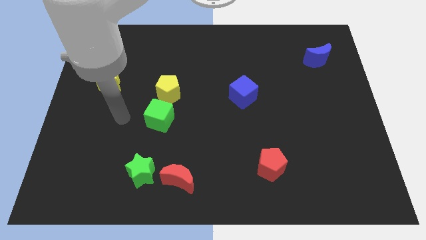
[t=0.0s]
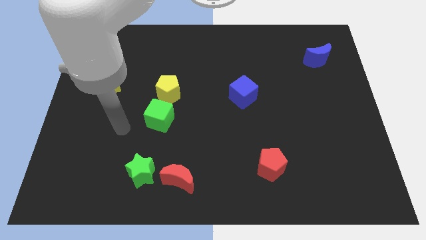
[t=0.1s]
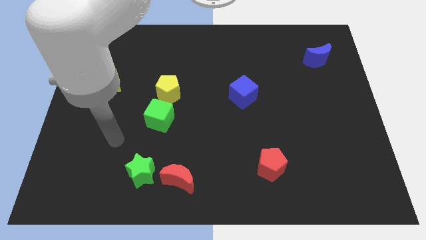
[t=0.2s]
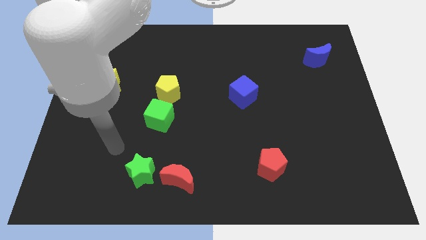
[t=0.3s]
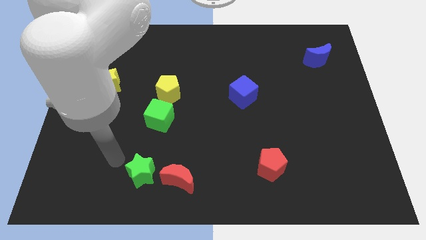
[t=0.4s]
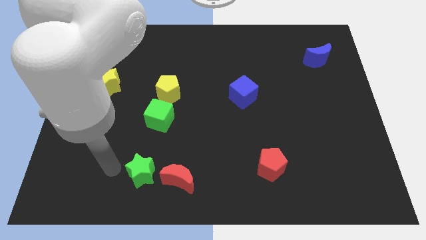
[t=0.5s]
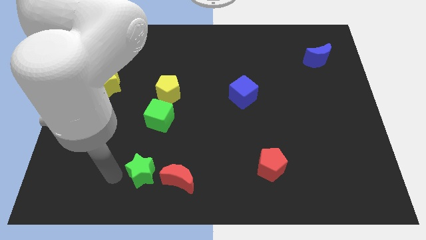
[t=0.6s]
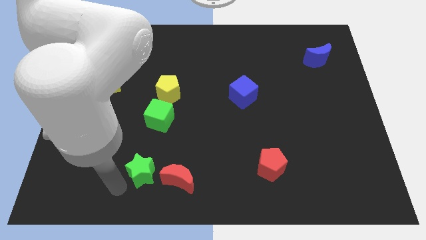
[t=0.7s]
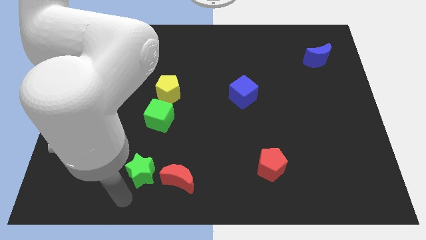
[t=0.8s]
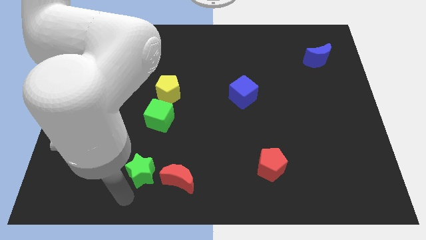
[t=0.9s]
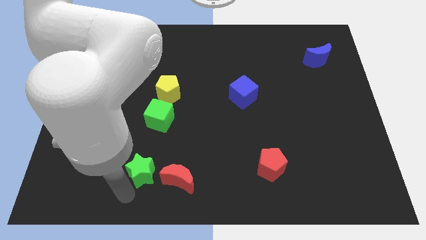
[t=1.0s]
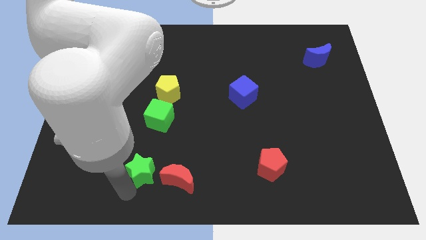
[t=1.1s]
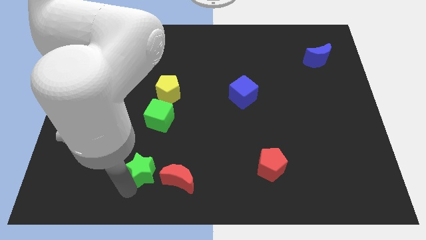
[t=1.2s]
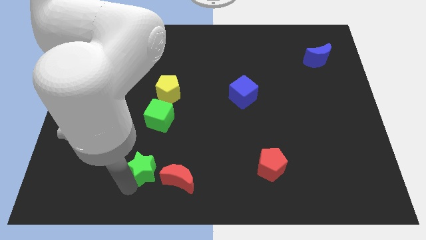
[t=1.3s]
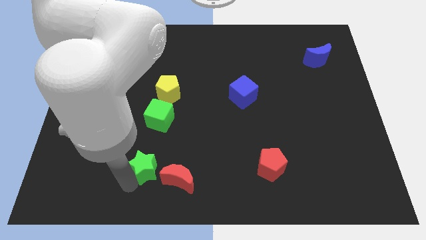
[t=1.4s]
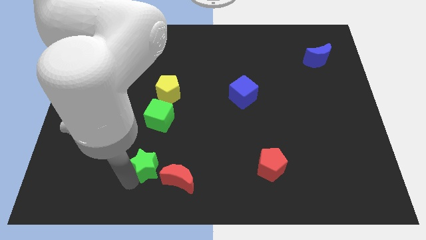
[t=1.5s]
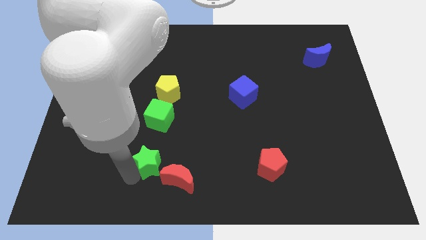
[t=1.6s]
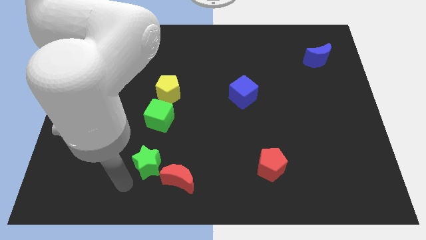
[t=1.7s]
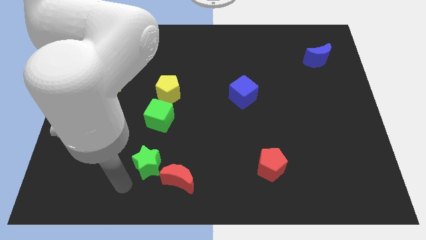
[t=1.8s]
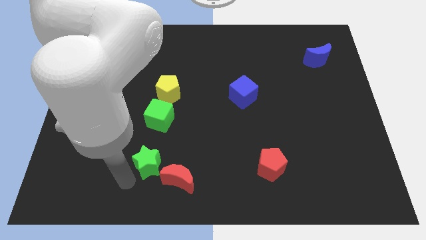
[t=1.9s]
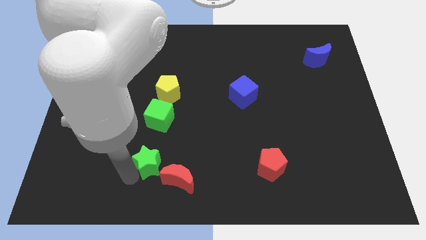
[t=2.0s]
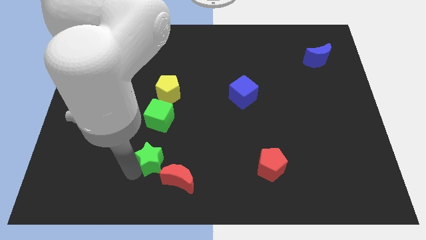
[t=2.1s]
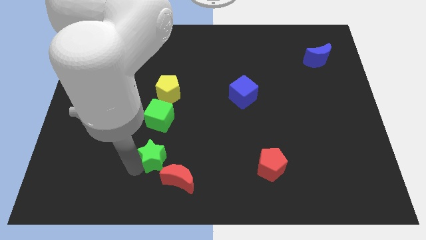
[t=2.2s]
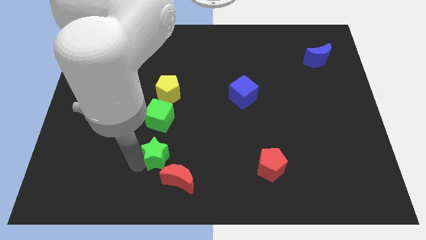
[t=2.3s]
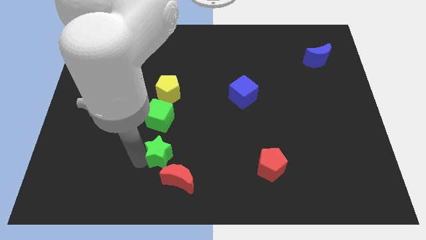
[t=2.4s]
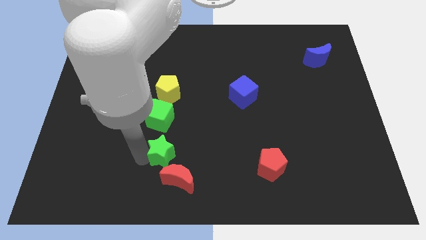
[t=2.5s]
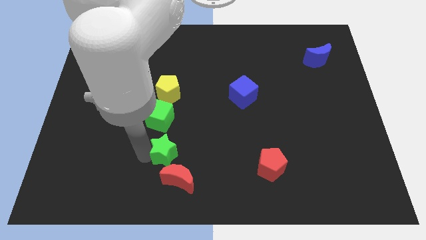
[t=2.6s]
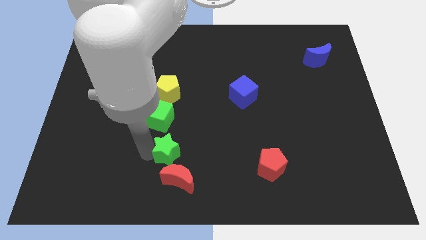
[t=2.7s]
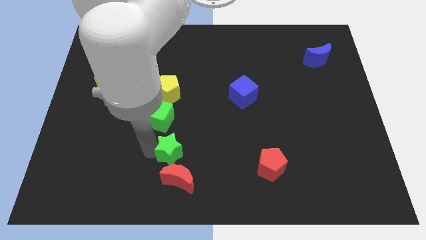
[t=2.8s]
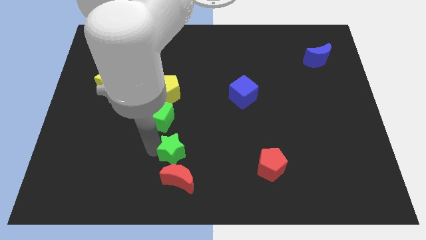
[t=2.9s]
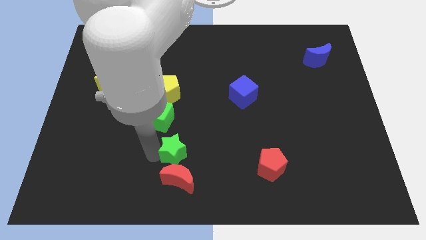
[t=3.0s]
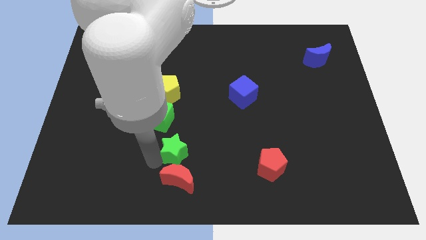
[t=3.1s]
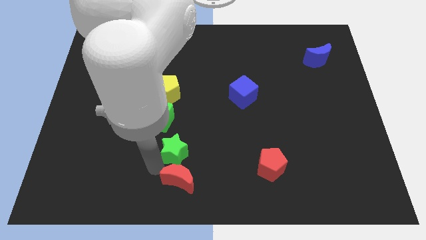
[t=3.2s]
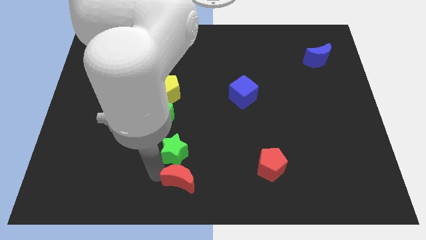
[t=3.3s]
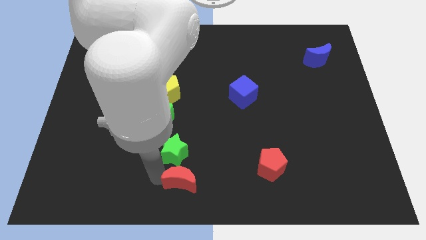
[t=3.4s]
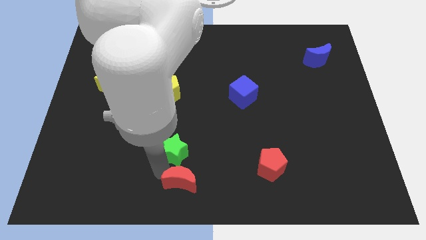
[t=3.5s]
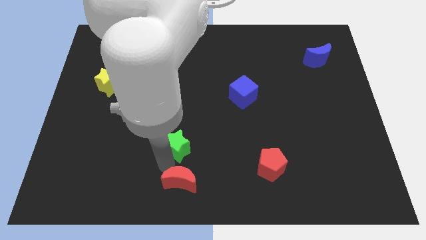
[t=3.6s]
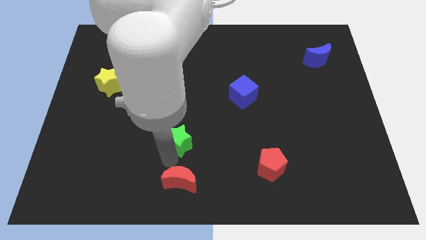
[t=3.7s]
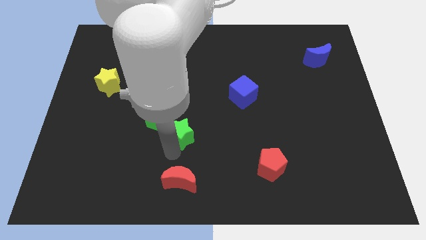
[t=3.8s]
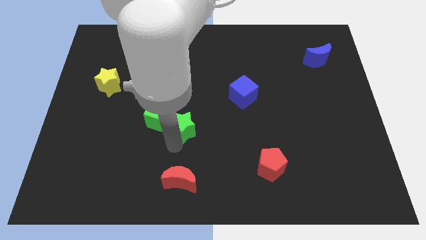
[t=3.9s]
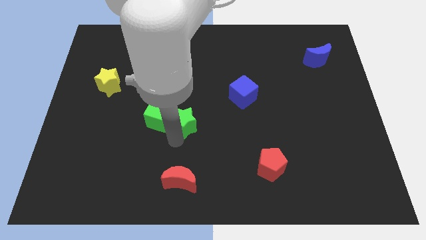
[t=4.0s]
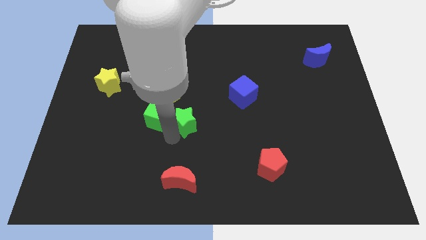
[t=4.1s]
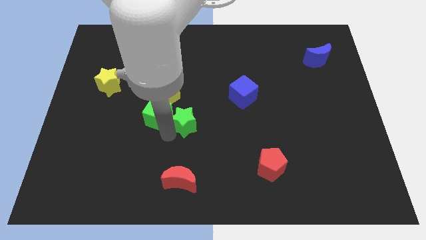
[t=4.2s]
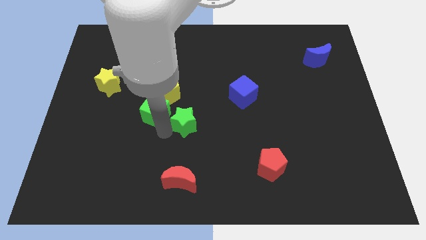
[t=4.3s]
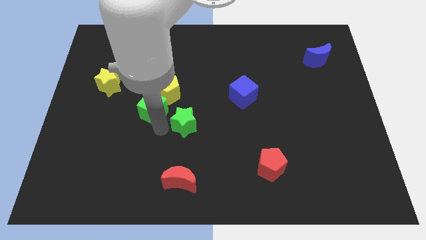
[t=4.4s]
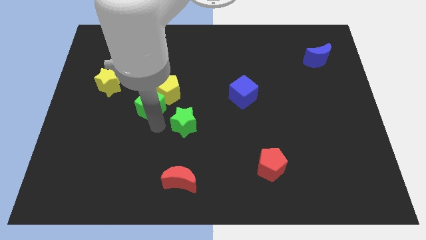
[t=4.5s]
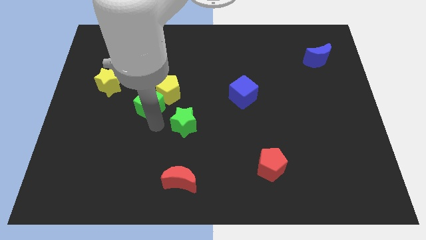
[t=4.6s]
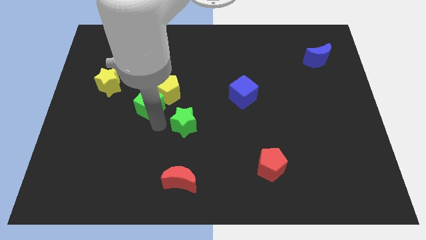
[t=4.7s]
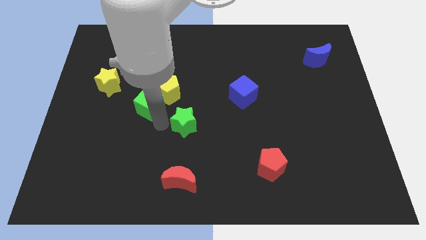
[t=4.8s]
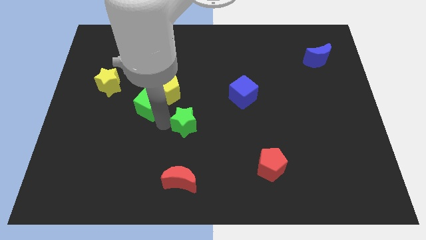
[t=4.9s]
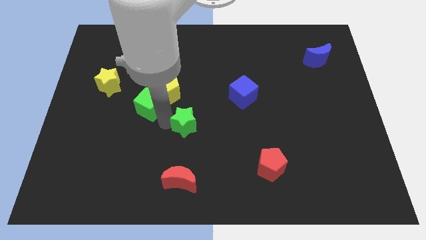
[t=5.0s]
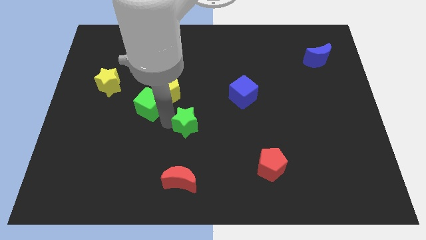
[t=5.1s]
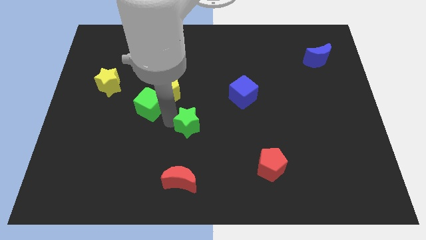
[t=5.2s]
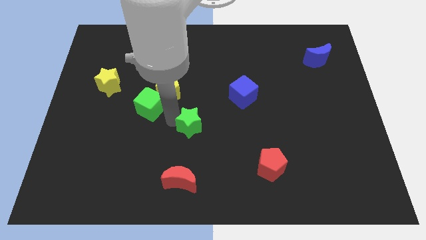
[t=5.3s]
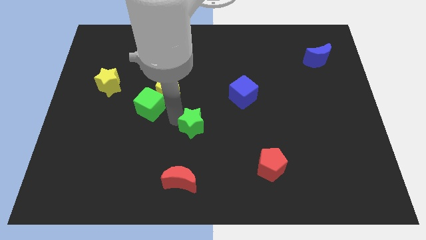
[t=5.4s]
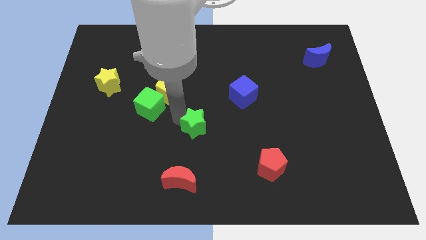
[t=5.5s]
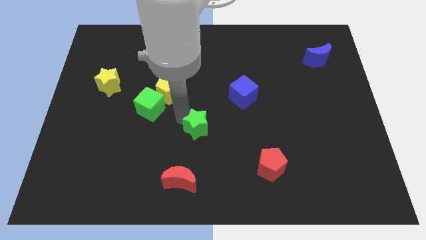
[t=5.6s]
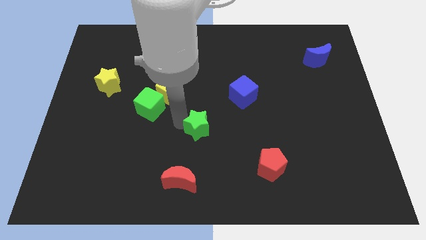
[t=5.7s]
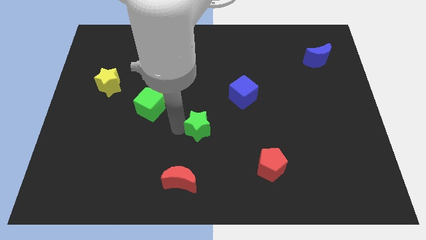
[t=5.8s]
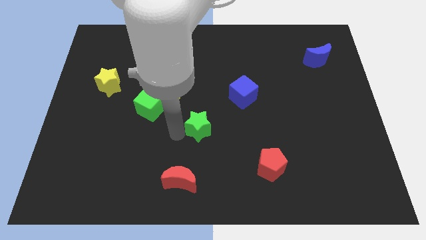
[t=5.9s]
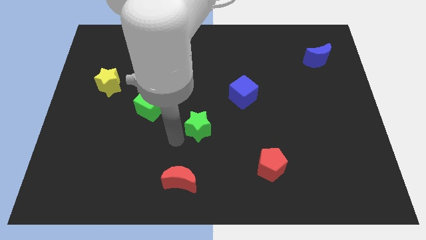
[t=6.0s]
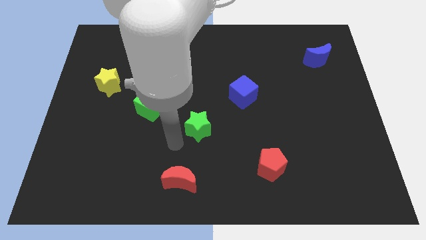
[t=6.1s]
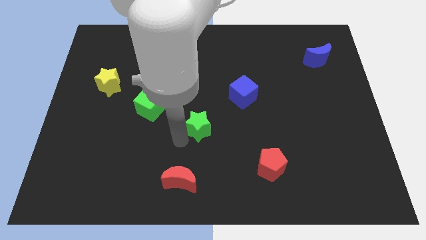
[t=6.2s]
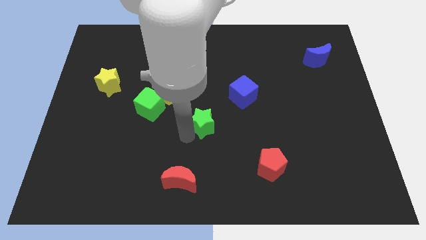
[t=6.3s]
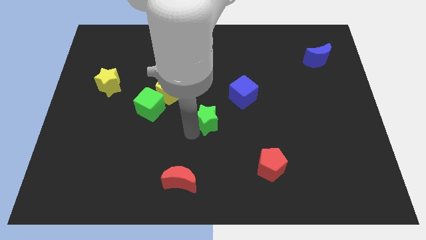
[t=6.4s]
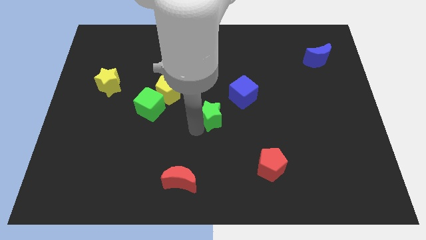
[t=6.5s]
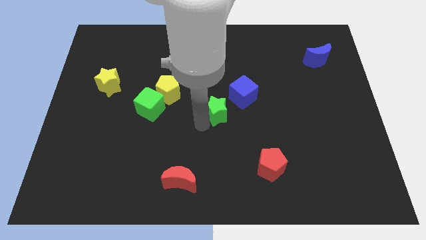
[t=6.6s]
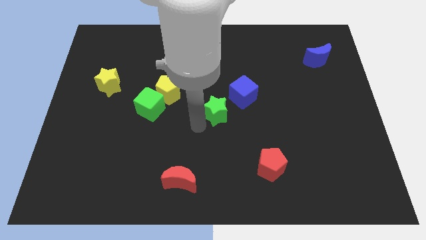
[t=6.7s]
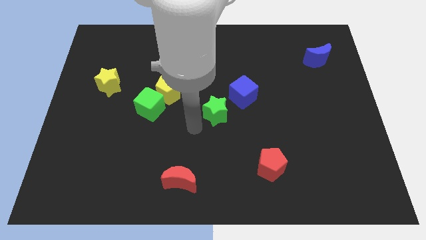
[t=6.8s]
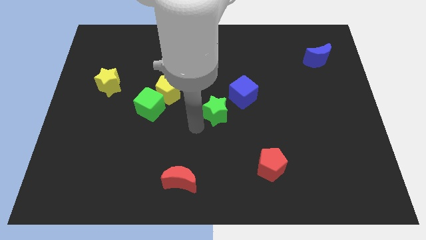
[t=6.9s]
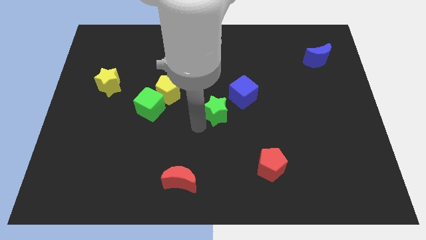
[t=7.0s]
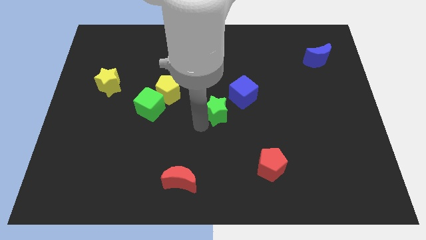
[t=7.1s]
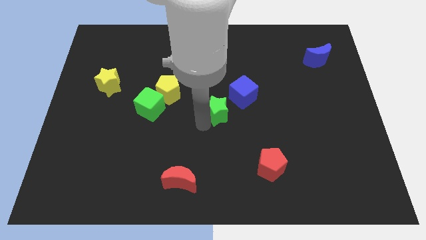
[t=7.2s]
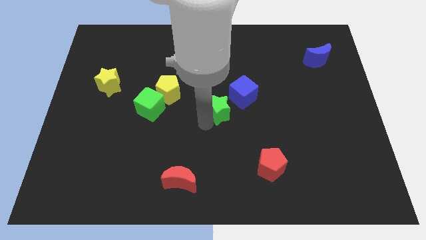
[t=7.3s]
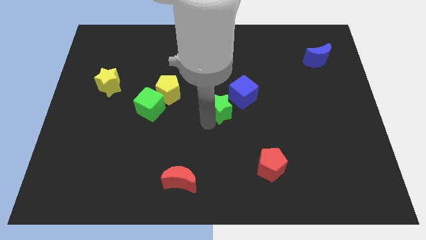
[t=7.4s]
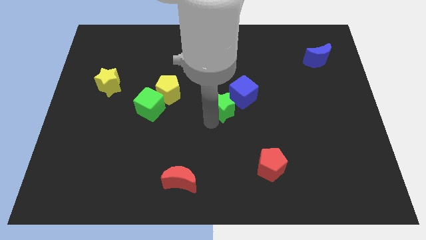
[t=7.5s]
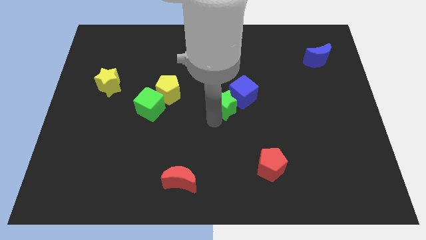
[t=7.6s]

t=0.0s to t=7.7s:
move the green star next to the blue cube
